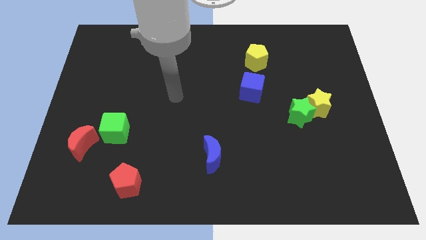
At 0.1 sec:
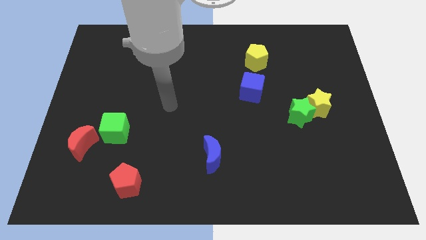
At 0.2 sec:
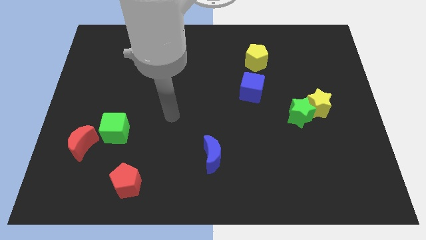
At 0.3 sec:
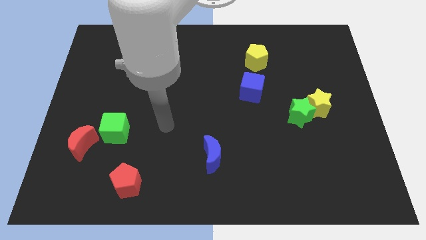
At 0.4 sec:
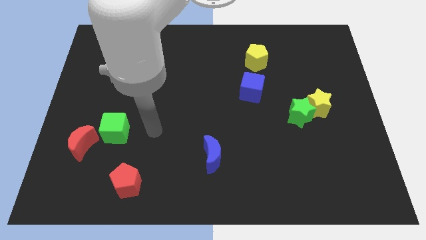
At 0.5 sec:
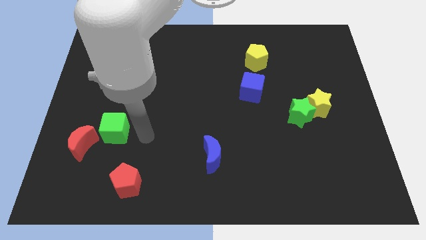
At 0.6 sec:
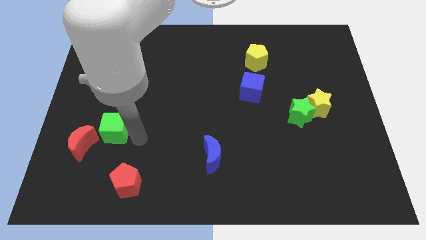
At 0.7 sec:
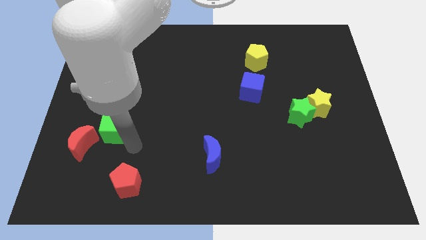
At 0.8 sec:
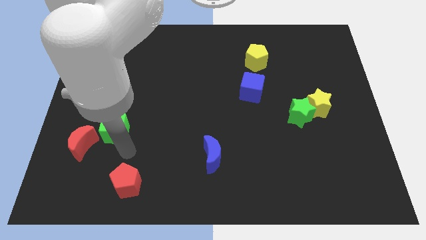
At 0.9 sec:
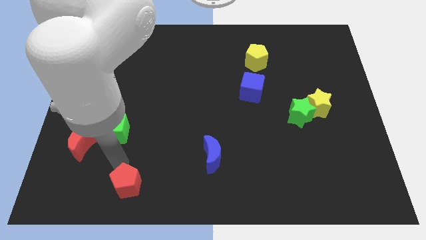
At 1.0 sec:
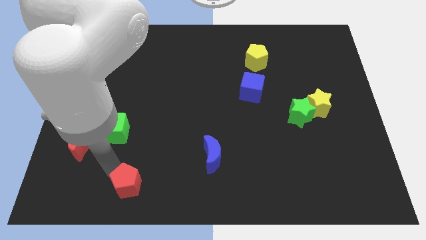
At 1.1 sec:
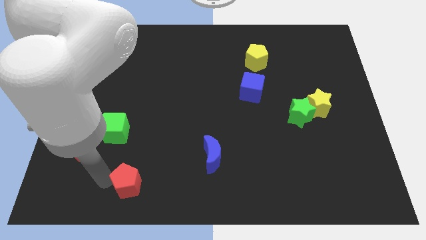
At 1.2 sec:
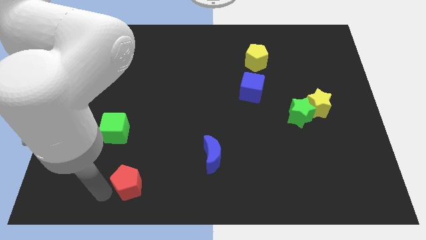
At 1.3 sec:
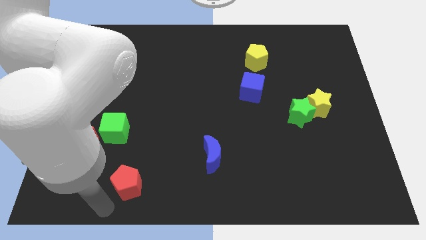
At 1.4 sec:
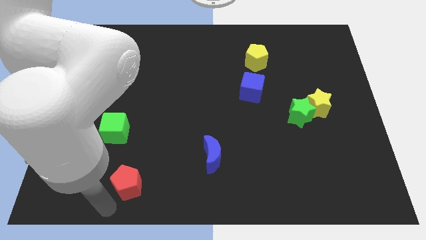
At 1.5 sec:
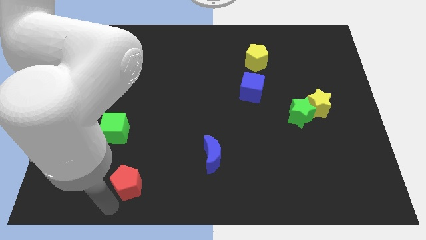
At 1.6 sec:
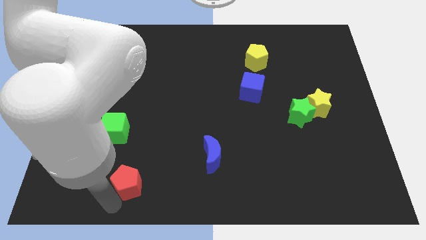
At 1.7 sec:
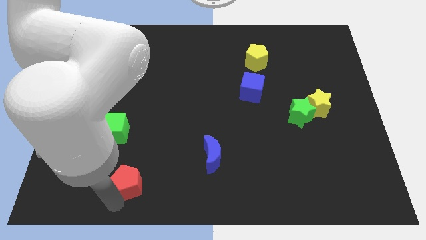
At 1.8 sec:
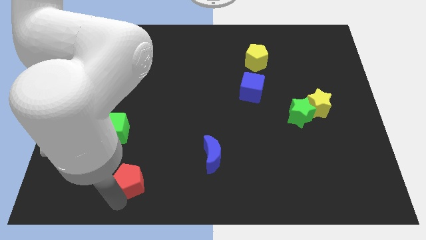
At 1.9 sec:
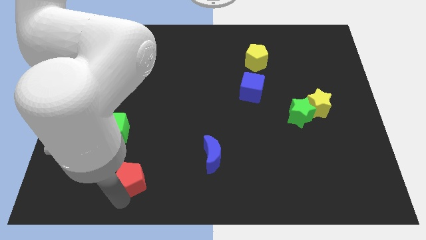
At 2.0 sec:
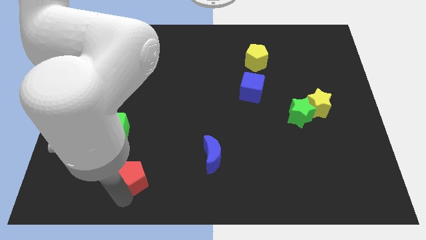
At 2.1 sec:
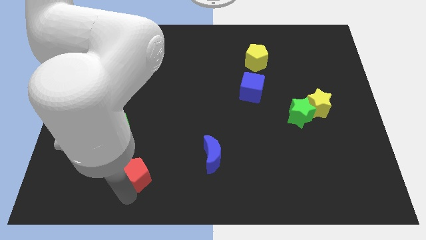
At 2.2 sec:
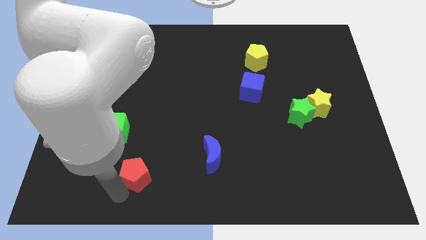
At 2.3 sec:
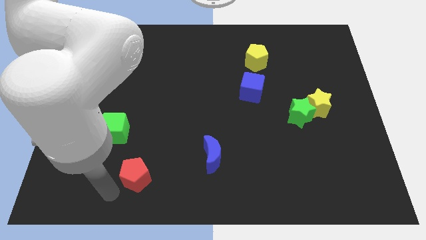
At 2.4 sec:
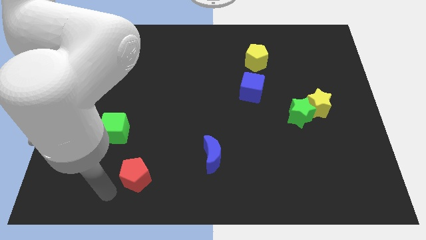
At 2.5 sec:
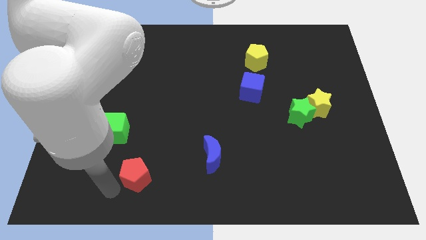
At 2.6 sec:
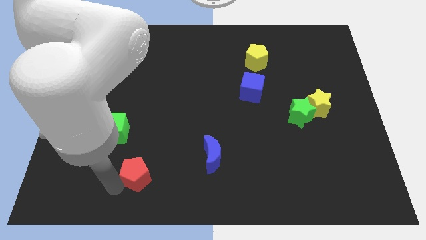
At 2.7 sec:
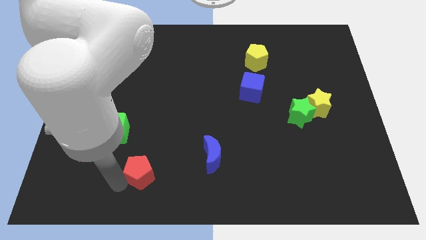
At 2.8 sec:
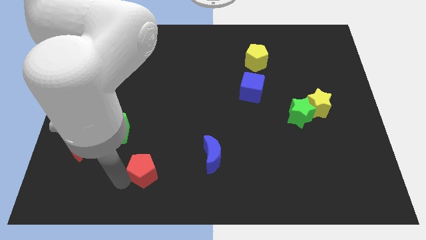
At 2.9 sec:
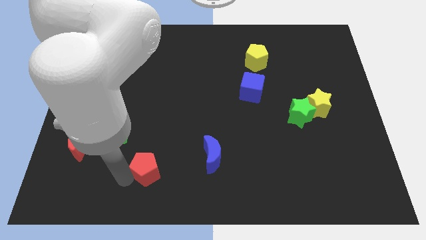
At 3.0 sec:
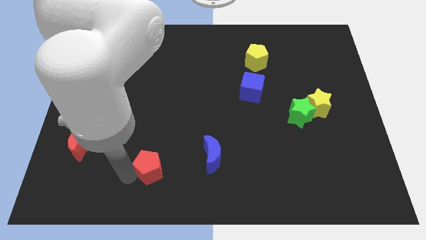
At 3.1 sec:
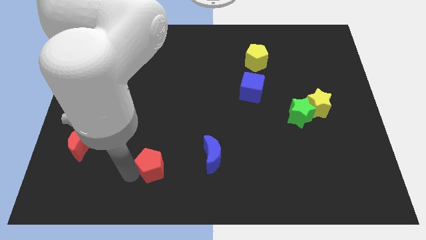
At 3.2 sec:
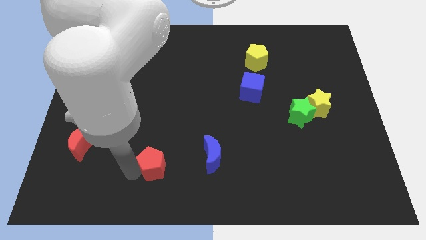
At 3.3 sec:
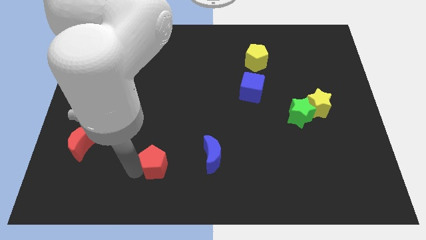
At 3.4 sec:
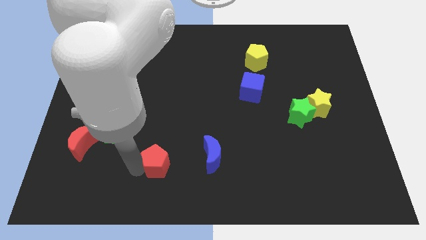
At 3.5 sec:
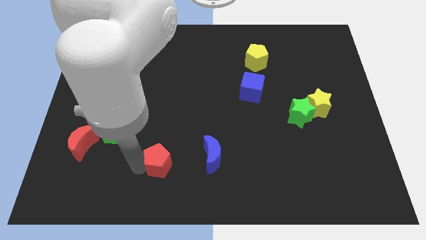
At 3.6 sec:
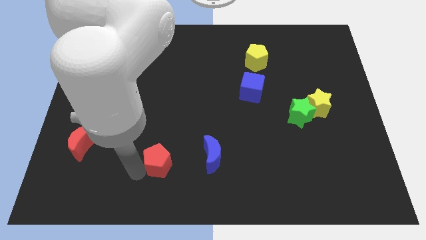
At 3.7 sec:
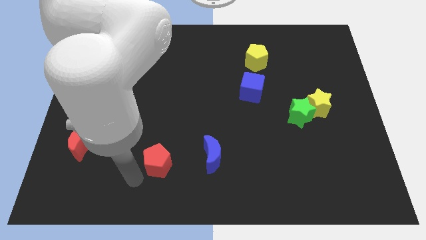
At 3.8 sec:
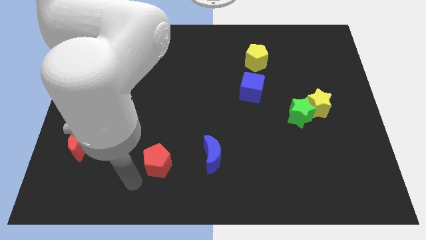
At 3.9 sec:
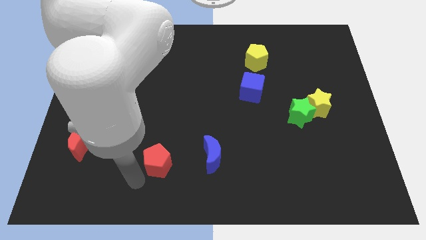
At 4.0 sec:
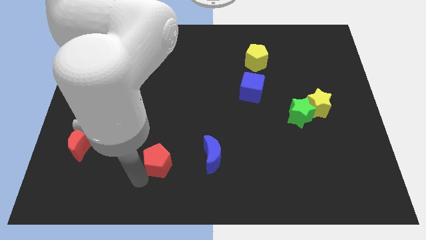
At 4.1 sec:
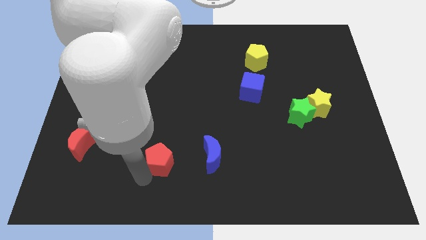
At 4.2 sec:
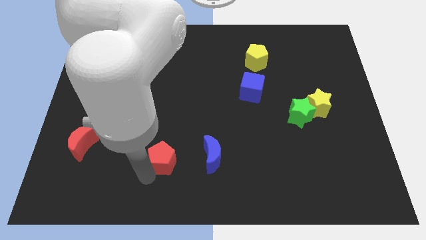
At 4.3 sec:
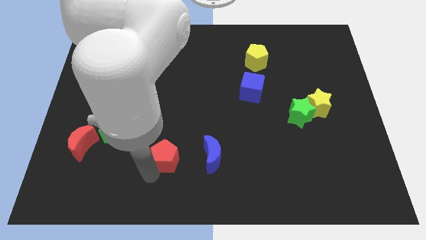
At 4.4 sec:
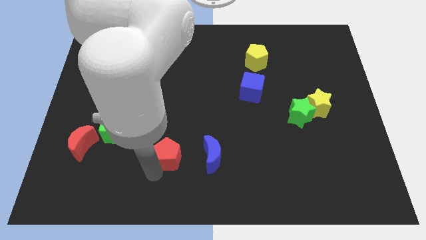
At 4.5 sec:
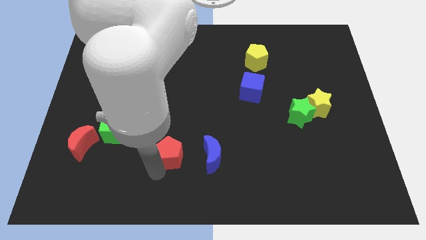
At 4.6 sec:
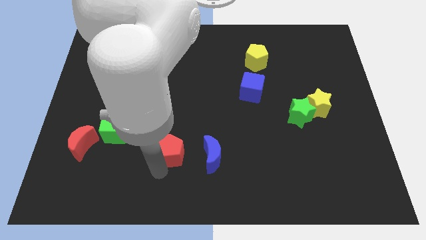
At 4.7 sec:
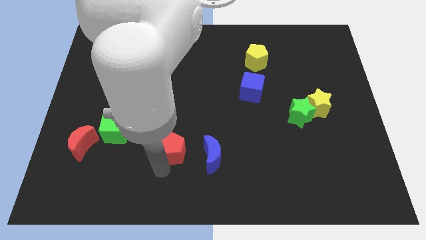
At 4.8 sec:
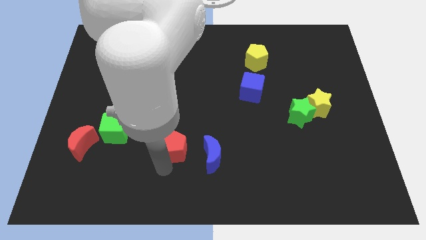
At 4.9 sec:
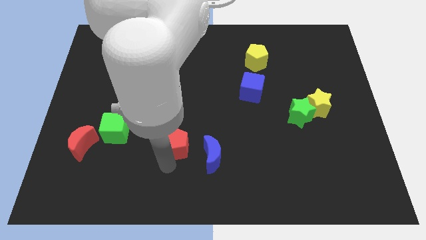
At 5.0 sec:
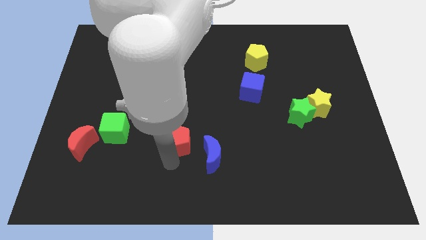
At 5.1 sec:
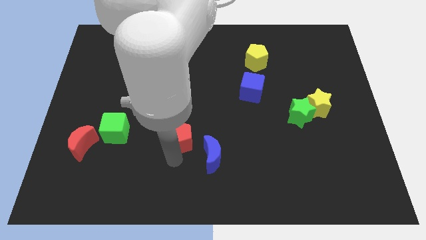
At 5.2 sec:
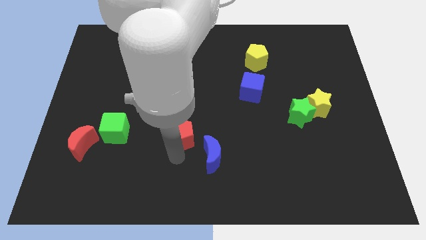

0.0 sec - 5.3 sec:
slide the red pentagon to the center of the board

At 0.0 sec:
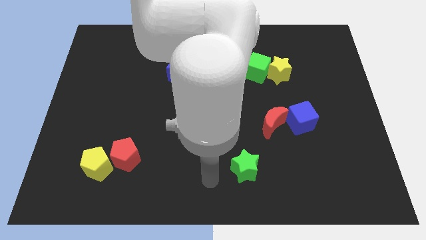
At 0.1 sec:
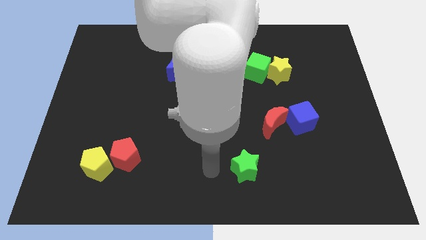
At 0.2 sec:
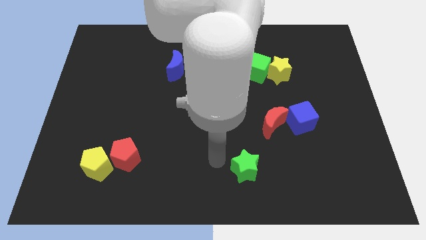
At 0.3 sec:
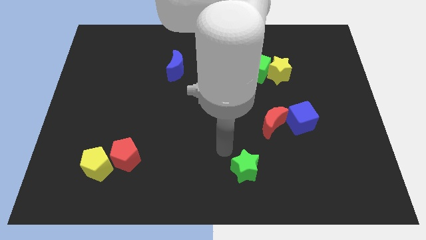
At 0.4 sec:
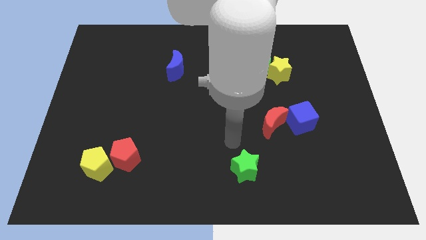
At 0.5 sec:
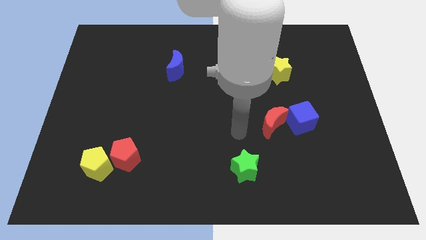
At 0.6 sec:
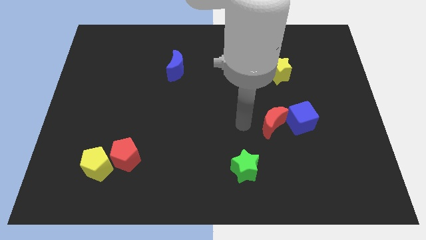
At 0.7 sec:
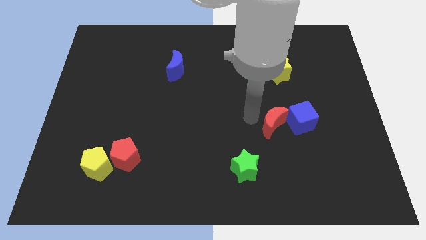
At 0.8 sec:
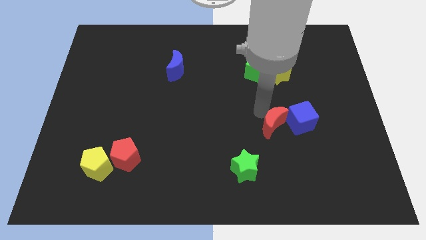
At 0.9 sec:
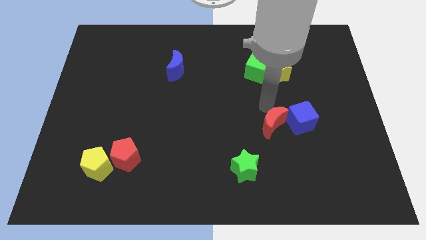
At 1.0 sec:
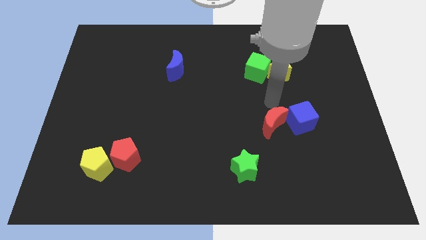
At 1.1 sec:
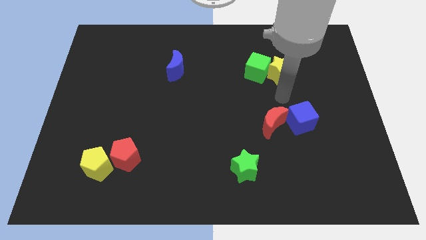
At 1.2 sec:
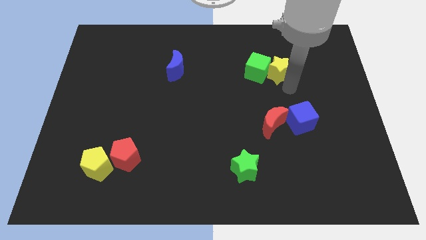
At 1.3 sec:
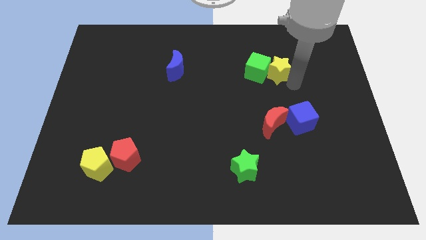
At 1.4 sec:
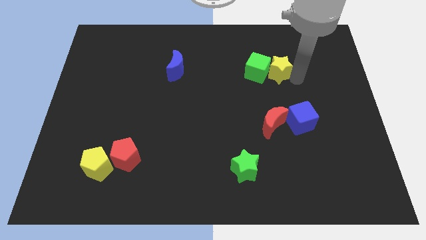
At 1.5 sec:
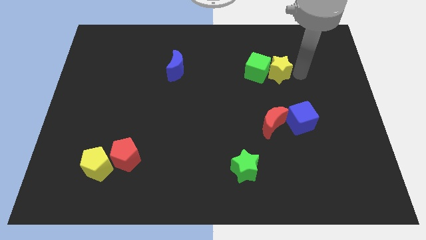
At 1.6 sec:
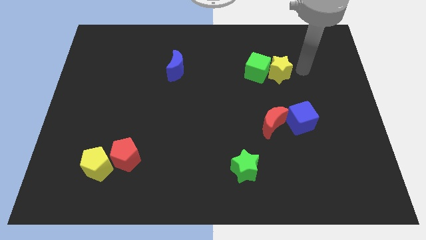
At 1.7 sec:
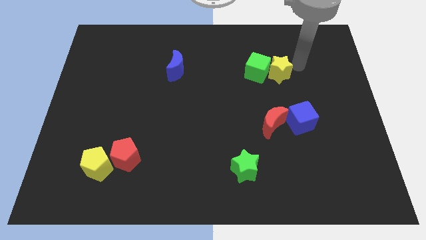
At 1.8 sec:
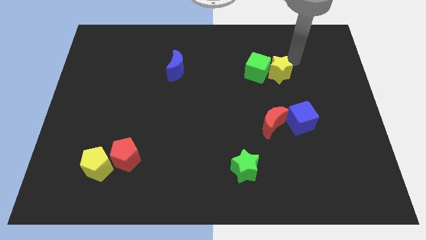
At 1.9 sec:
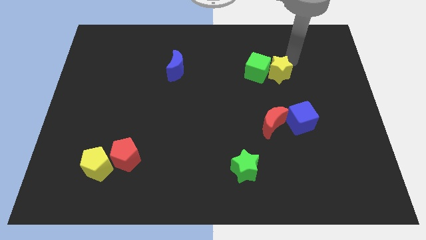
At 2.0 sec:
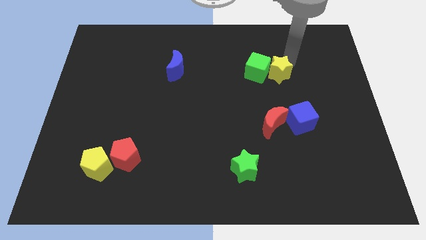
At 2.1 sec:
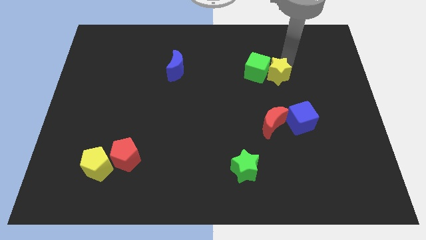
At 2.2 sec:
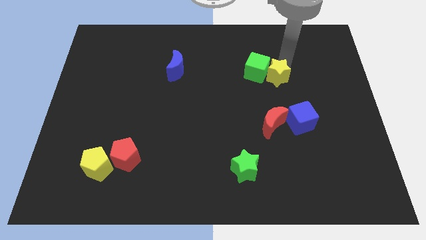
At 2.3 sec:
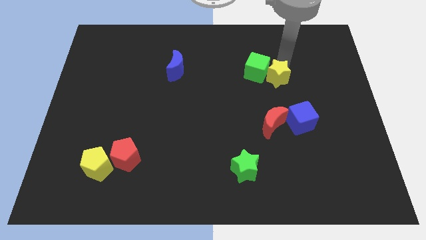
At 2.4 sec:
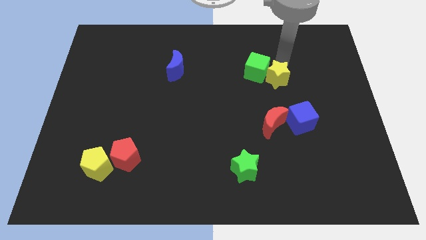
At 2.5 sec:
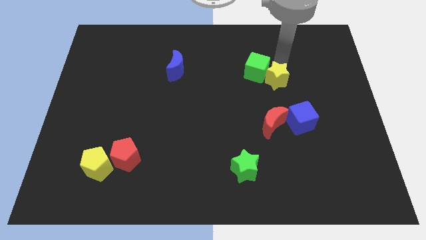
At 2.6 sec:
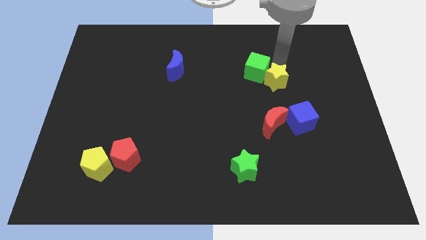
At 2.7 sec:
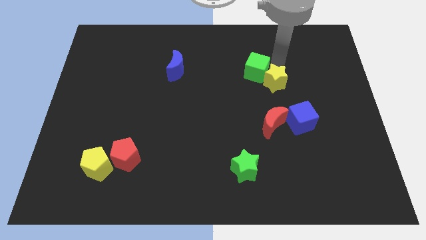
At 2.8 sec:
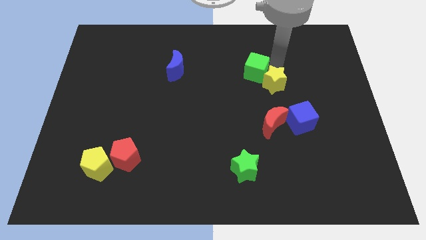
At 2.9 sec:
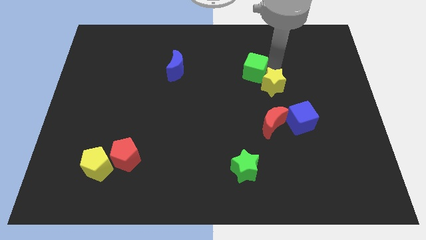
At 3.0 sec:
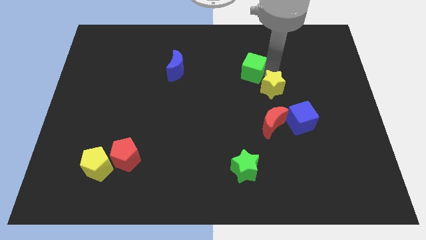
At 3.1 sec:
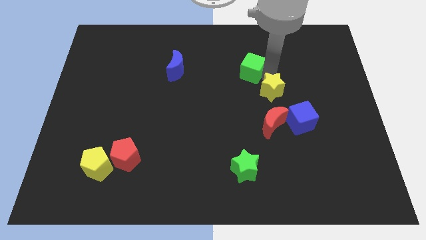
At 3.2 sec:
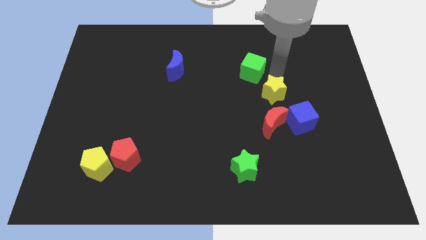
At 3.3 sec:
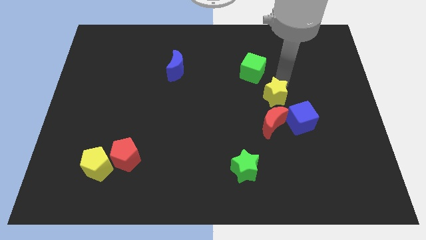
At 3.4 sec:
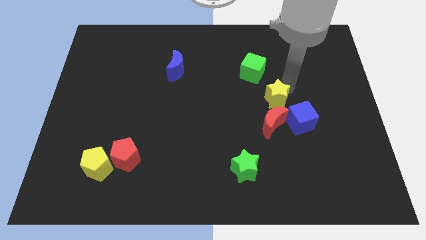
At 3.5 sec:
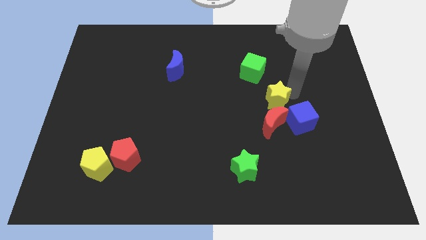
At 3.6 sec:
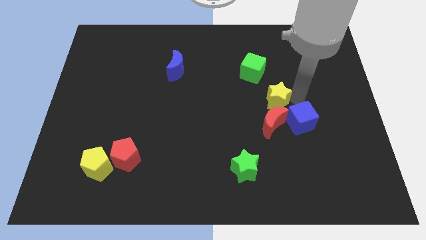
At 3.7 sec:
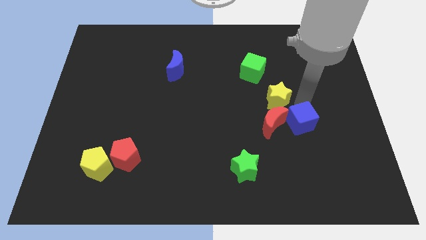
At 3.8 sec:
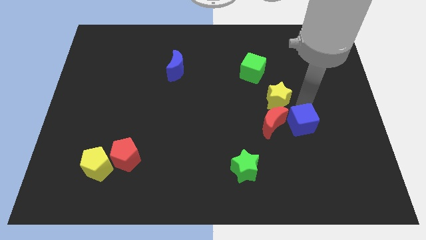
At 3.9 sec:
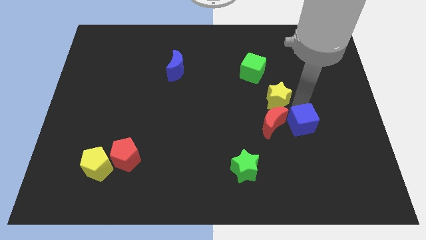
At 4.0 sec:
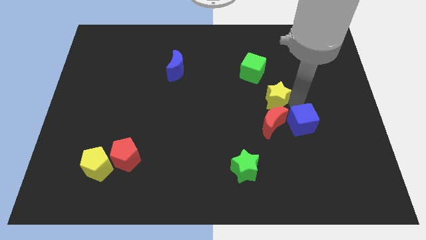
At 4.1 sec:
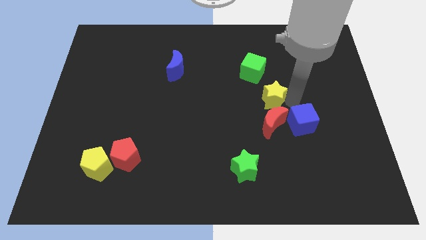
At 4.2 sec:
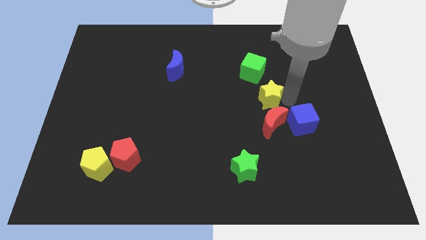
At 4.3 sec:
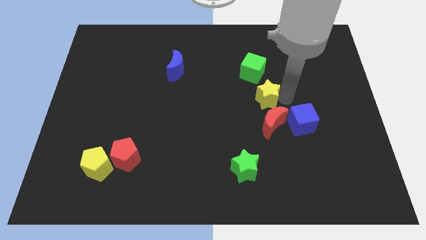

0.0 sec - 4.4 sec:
move the yellow star to the center
